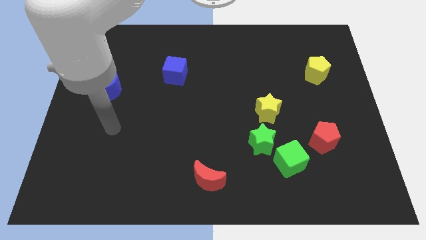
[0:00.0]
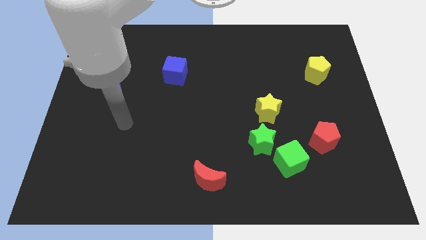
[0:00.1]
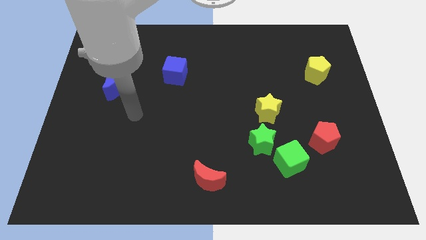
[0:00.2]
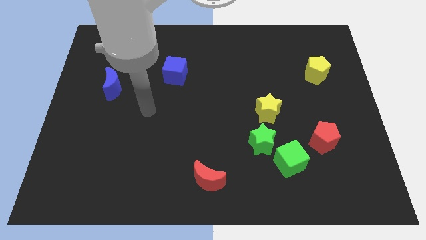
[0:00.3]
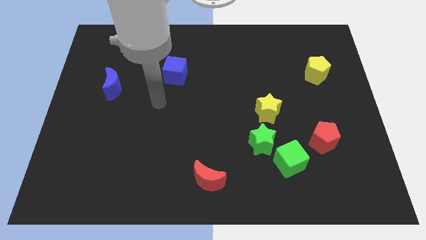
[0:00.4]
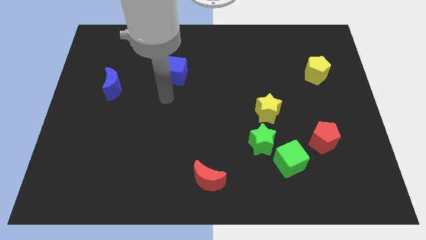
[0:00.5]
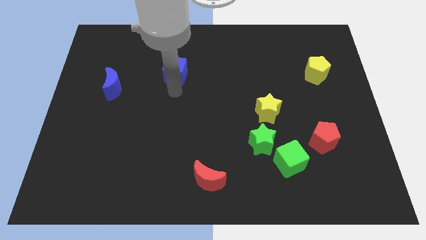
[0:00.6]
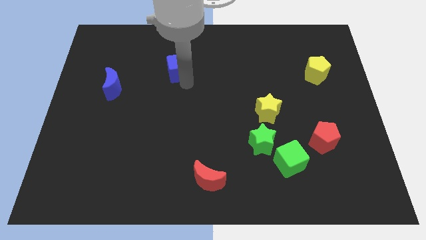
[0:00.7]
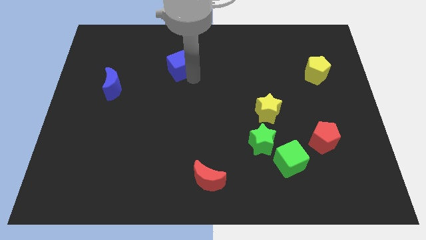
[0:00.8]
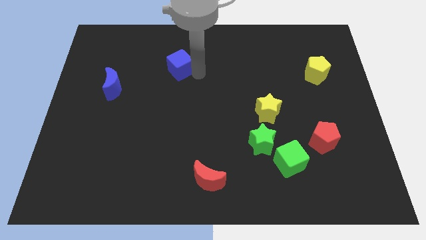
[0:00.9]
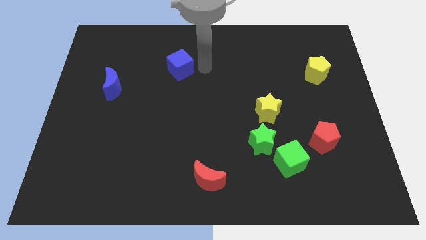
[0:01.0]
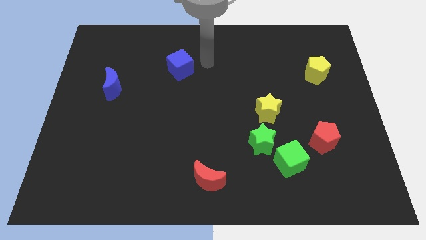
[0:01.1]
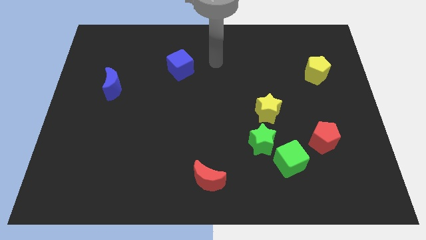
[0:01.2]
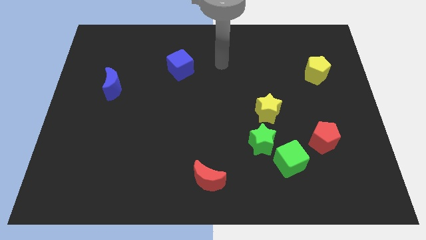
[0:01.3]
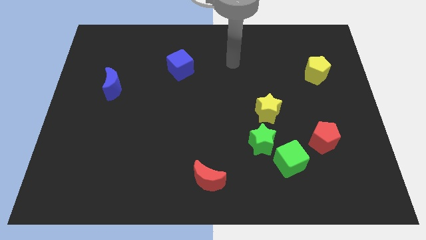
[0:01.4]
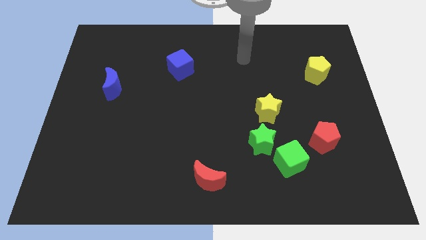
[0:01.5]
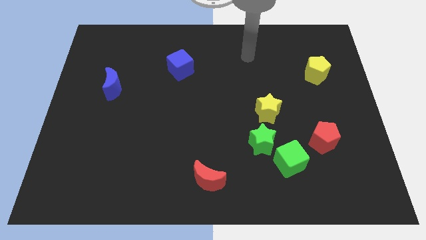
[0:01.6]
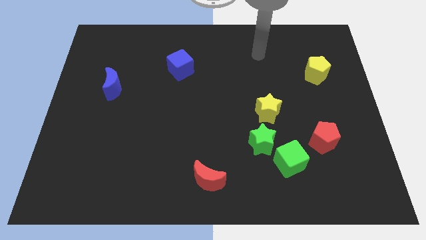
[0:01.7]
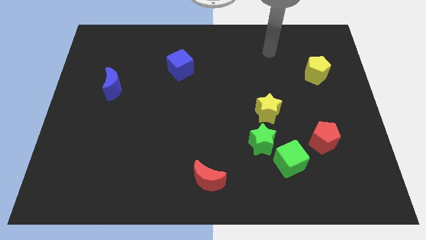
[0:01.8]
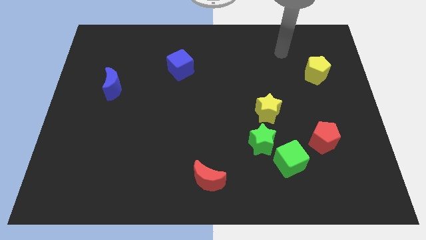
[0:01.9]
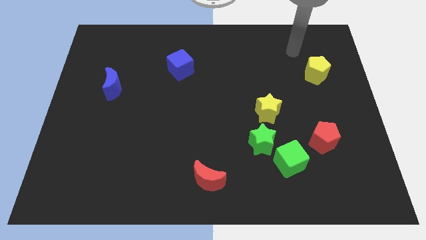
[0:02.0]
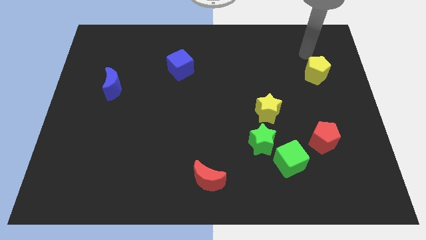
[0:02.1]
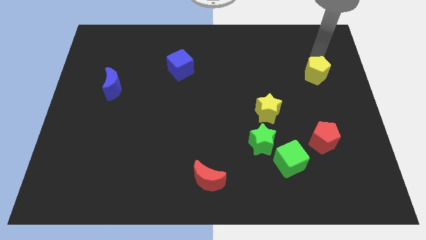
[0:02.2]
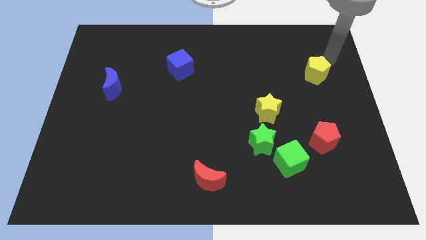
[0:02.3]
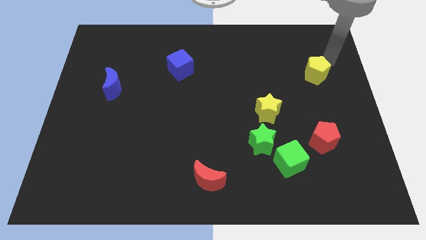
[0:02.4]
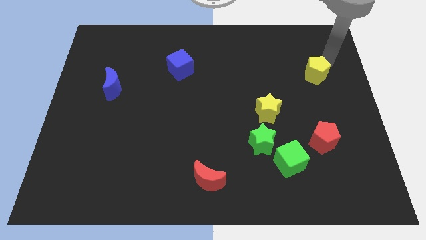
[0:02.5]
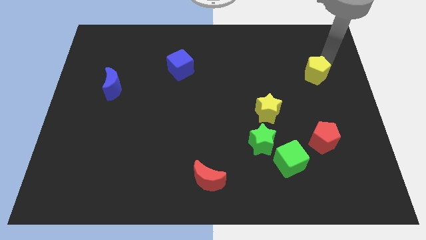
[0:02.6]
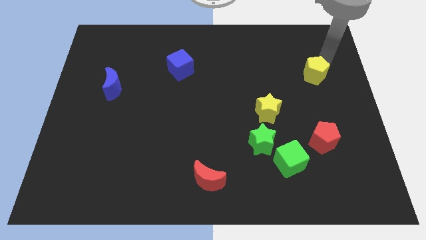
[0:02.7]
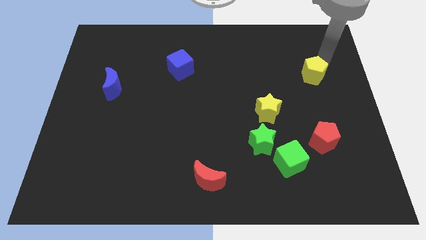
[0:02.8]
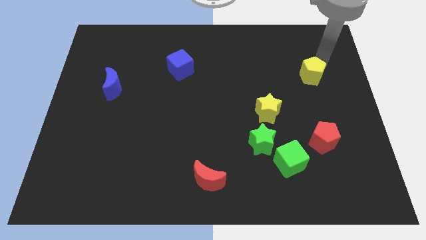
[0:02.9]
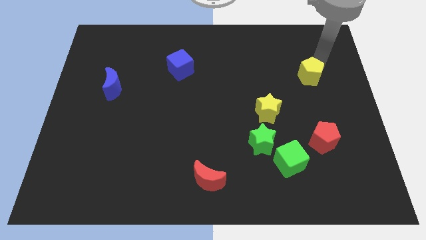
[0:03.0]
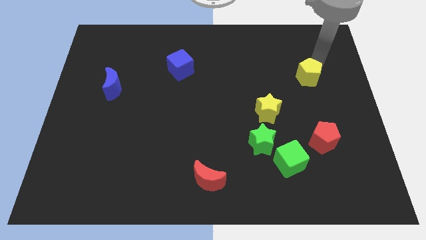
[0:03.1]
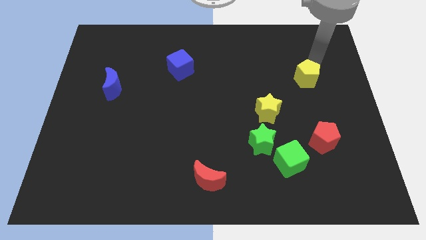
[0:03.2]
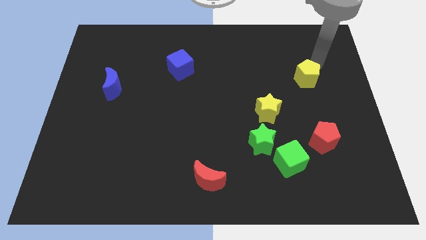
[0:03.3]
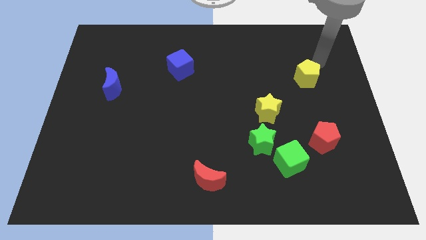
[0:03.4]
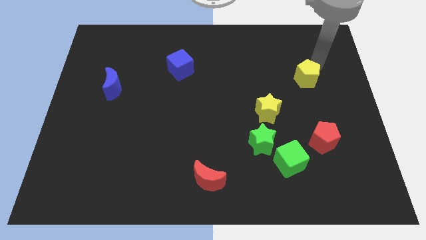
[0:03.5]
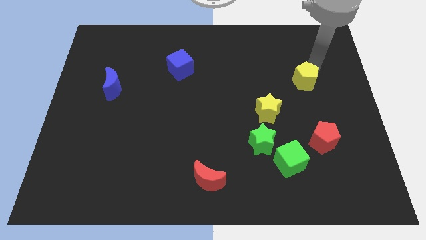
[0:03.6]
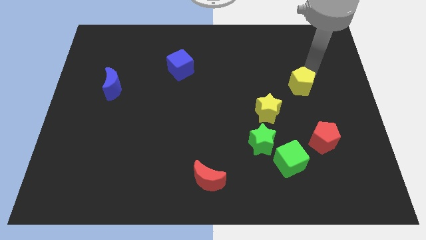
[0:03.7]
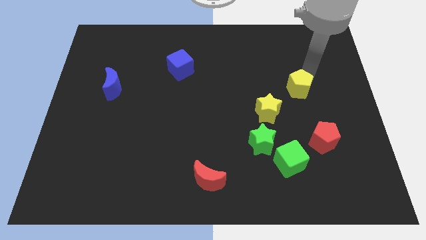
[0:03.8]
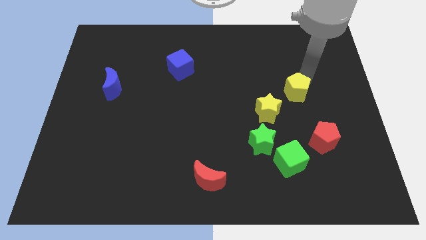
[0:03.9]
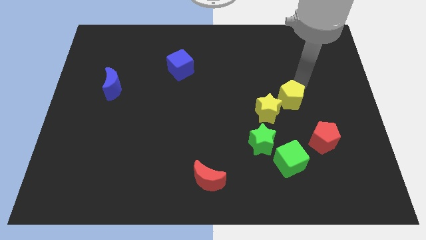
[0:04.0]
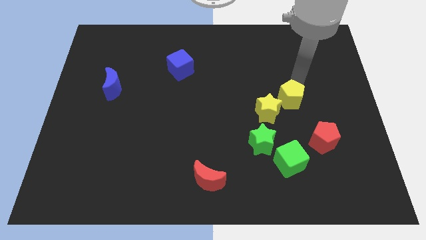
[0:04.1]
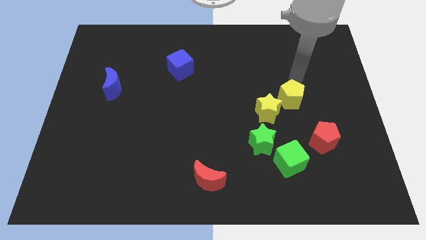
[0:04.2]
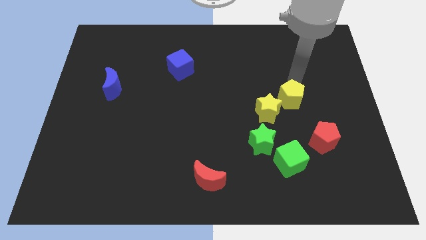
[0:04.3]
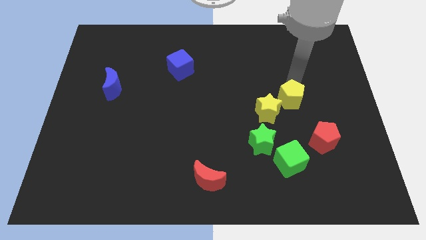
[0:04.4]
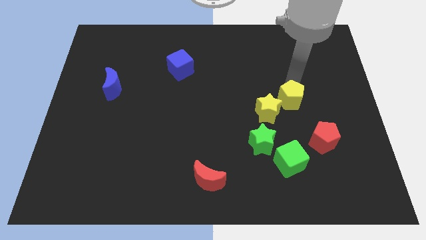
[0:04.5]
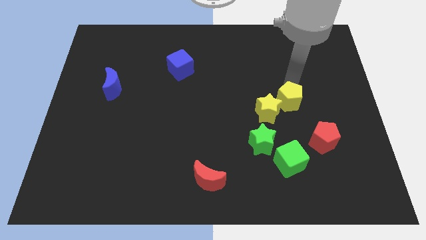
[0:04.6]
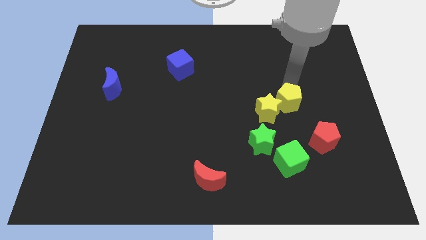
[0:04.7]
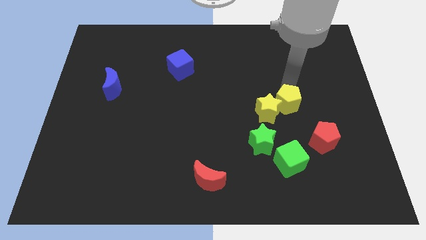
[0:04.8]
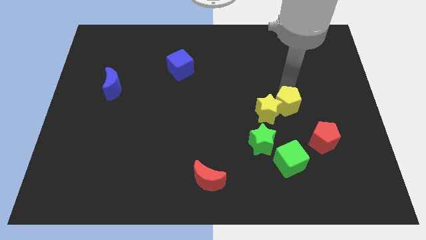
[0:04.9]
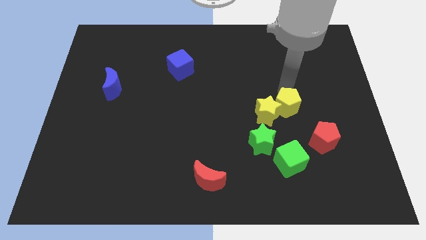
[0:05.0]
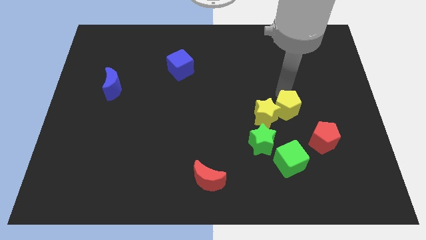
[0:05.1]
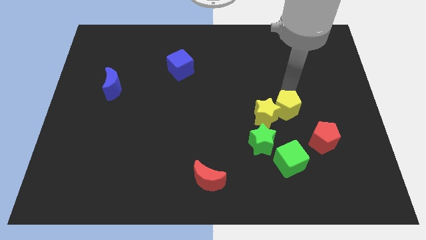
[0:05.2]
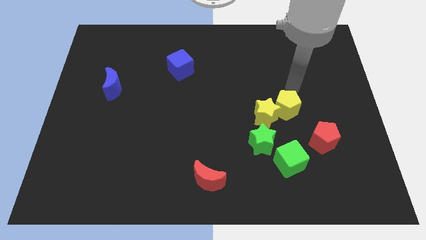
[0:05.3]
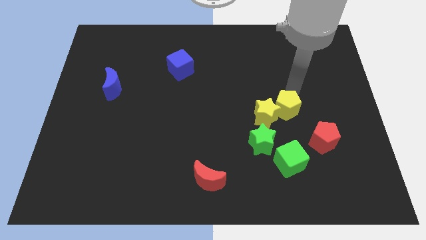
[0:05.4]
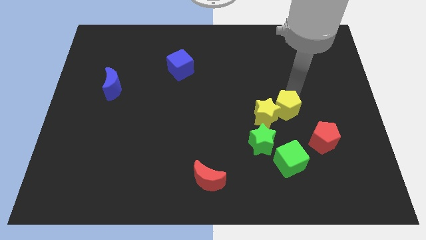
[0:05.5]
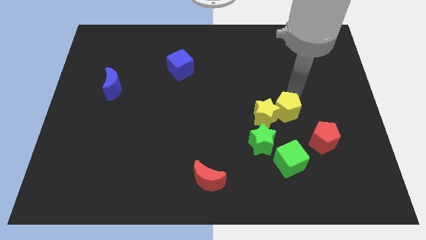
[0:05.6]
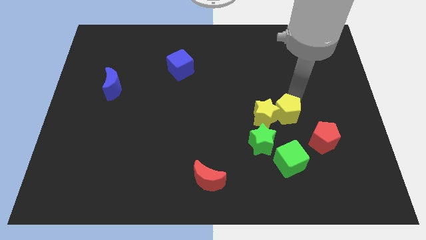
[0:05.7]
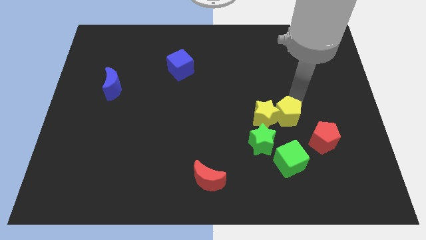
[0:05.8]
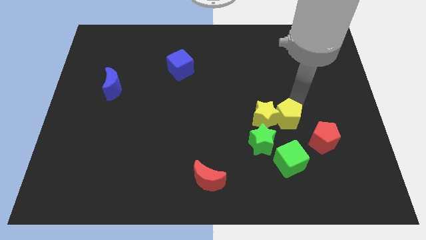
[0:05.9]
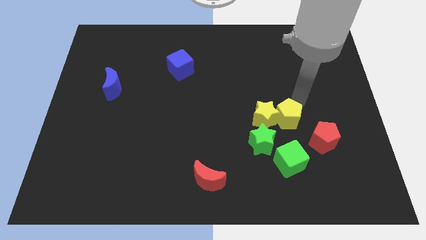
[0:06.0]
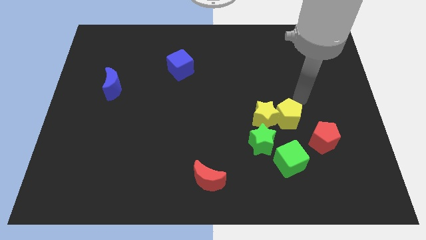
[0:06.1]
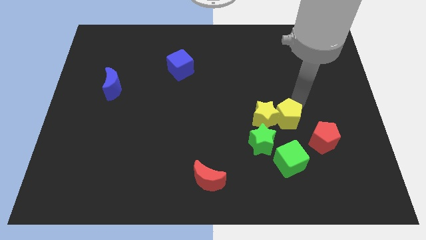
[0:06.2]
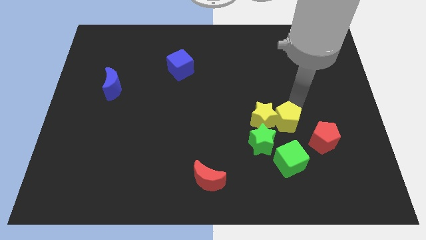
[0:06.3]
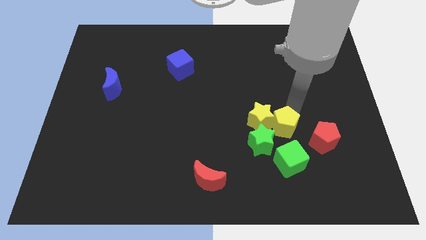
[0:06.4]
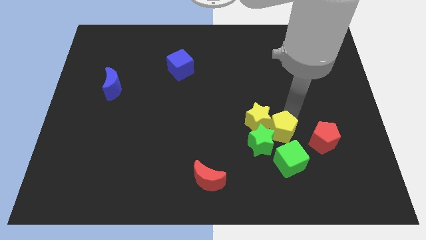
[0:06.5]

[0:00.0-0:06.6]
move the yellow pentagon to the green star

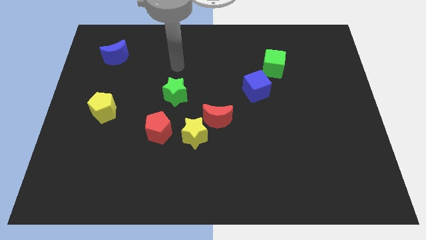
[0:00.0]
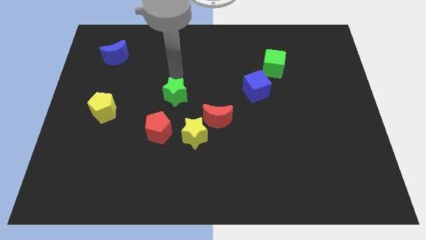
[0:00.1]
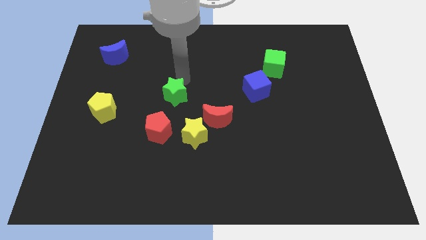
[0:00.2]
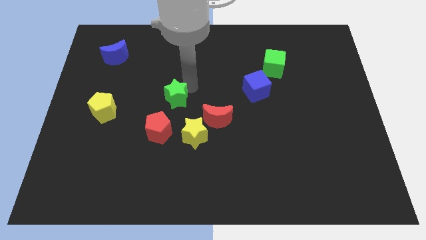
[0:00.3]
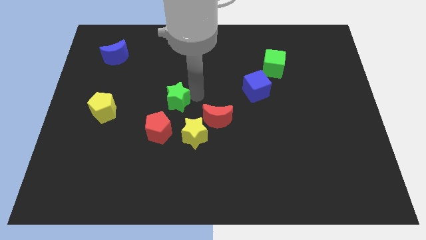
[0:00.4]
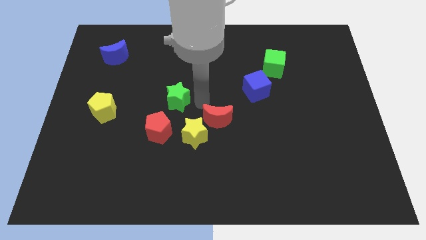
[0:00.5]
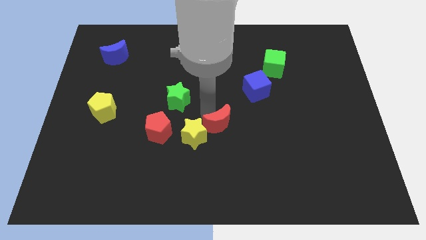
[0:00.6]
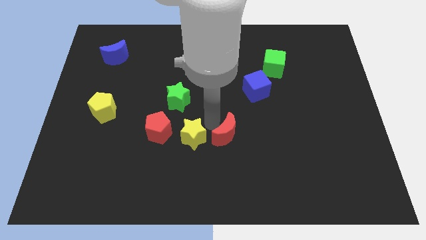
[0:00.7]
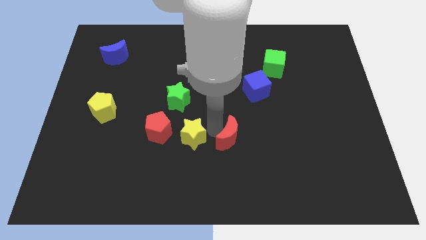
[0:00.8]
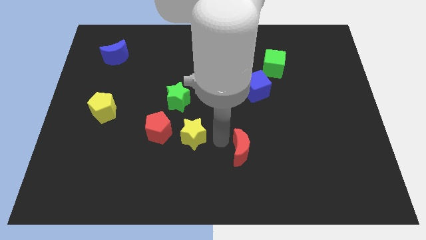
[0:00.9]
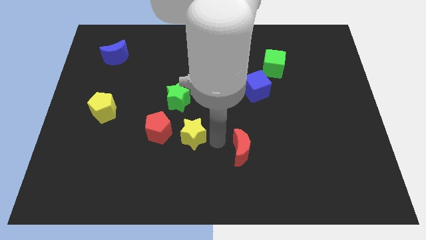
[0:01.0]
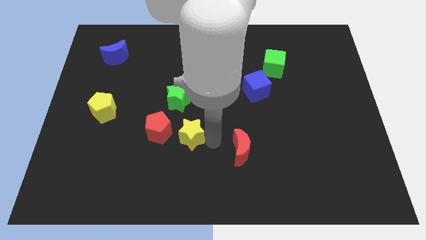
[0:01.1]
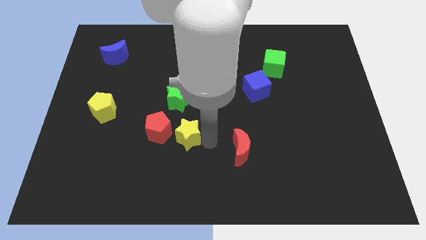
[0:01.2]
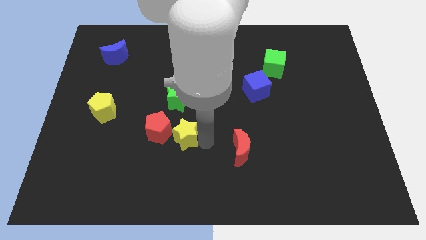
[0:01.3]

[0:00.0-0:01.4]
slide the yellow star close to the red pentagon
